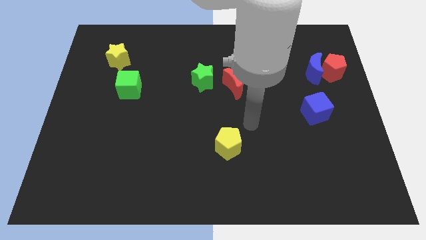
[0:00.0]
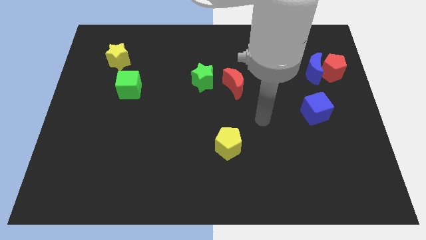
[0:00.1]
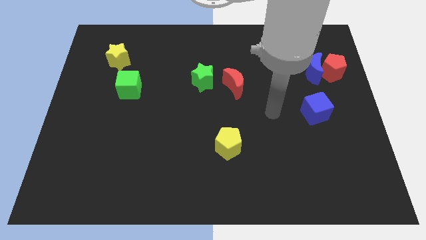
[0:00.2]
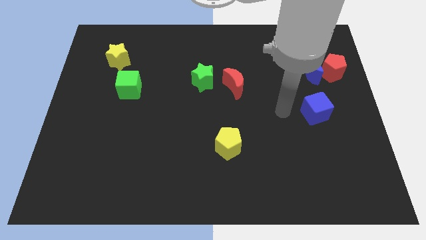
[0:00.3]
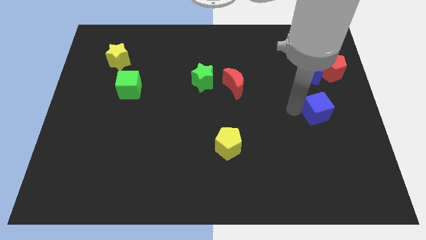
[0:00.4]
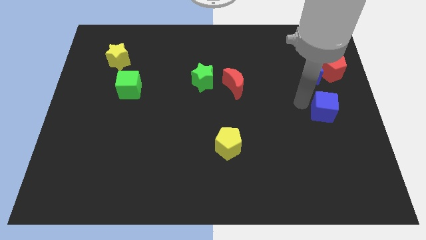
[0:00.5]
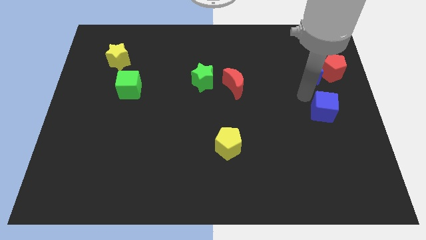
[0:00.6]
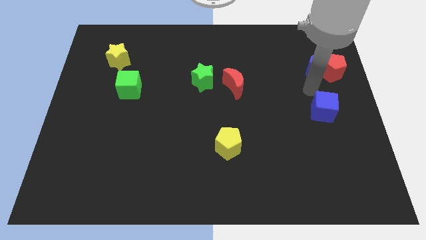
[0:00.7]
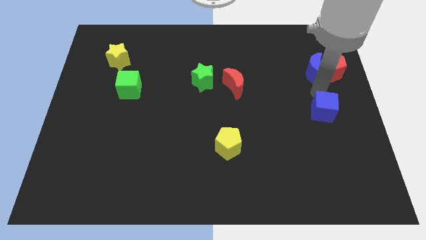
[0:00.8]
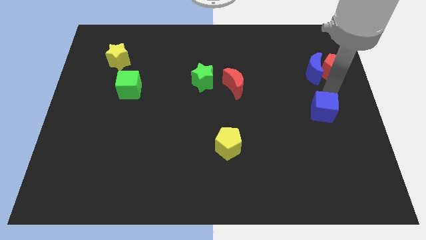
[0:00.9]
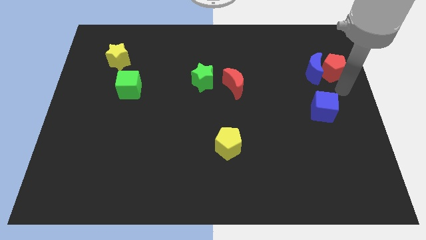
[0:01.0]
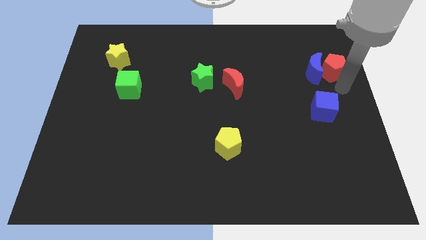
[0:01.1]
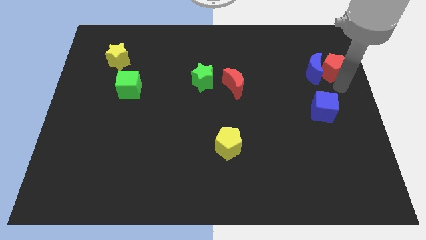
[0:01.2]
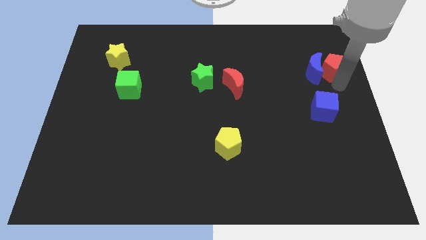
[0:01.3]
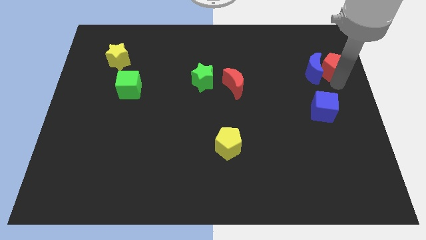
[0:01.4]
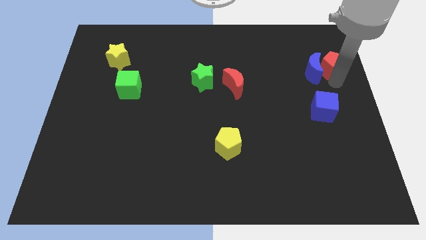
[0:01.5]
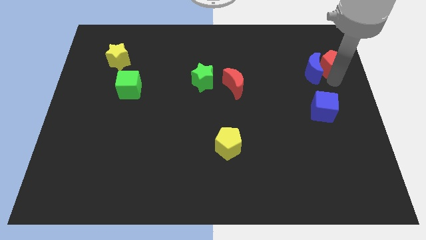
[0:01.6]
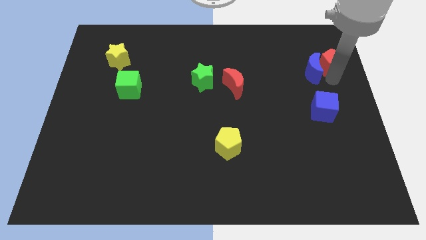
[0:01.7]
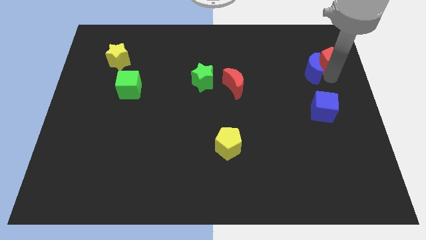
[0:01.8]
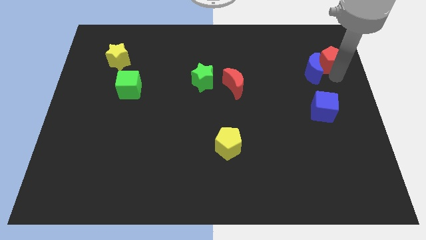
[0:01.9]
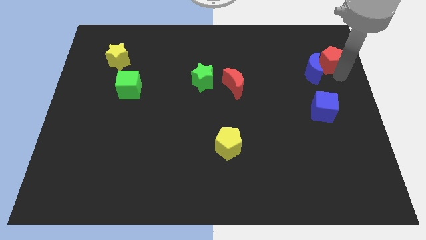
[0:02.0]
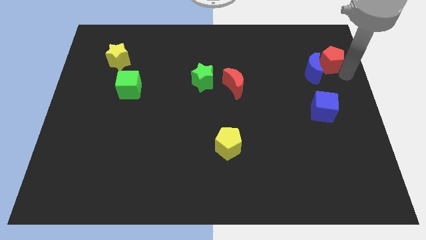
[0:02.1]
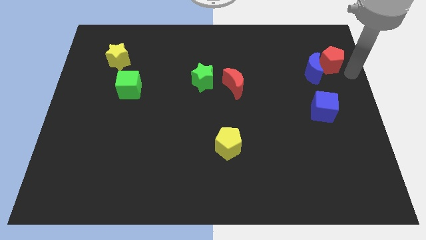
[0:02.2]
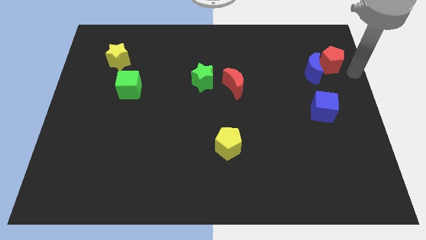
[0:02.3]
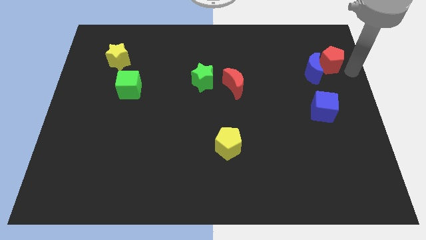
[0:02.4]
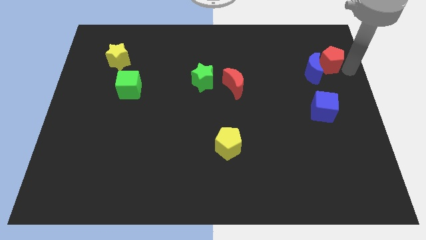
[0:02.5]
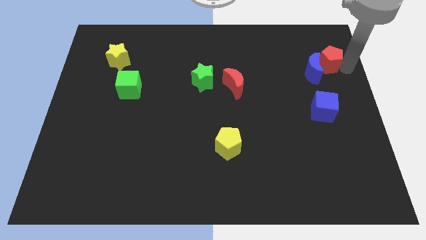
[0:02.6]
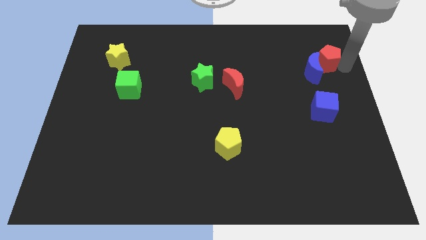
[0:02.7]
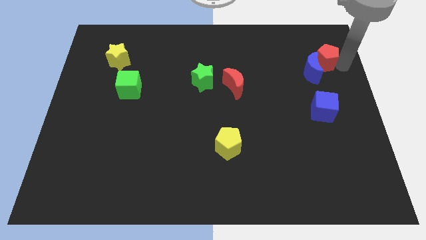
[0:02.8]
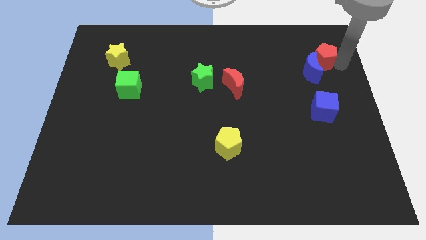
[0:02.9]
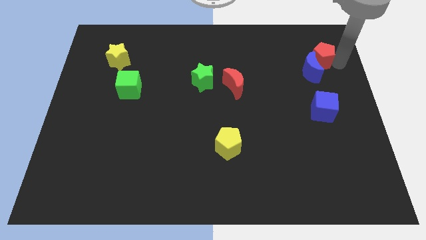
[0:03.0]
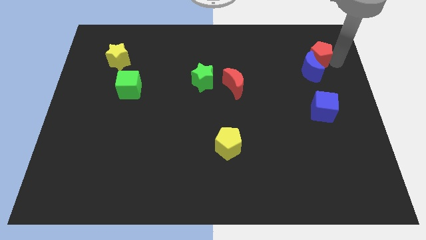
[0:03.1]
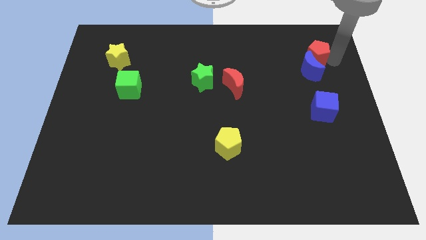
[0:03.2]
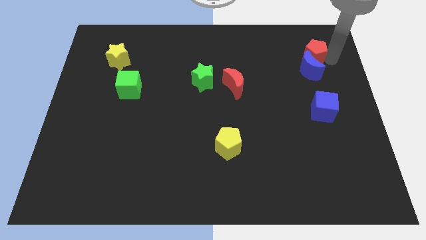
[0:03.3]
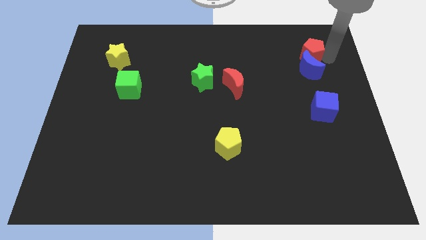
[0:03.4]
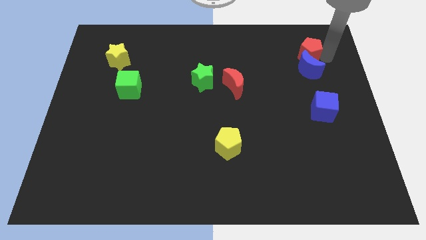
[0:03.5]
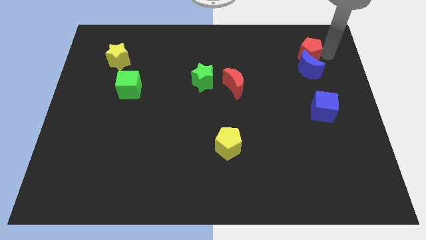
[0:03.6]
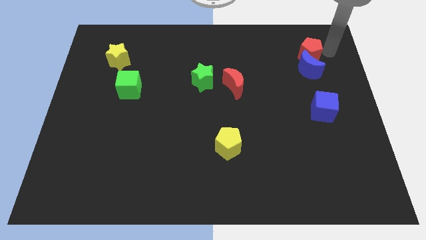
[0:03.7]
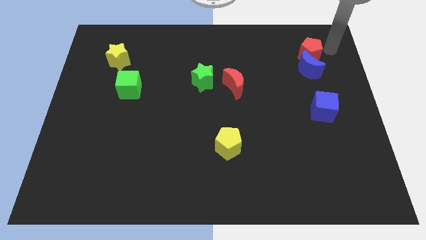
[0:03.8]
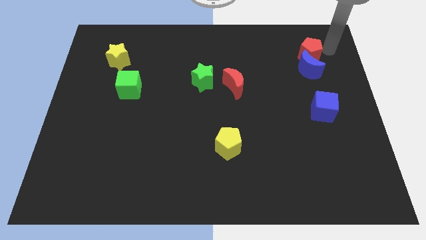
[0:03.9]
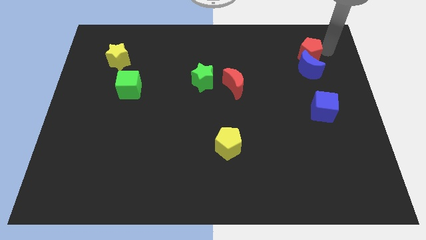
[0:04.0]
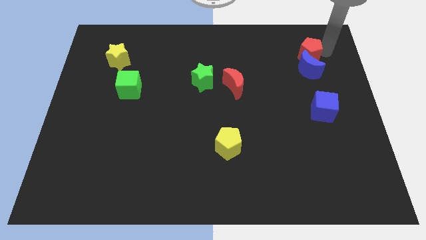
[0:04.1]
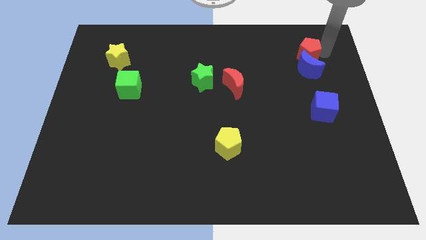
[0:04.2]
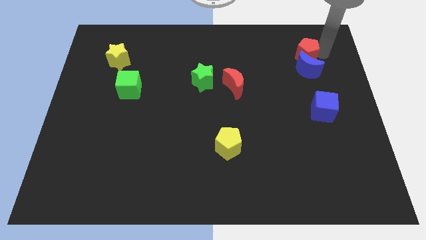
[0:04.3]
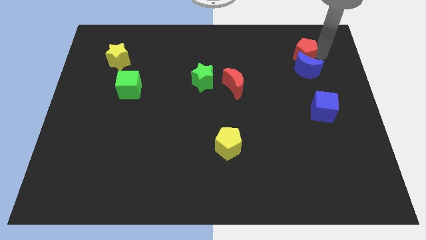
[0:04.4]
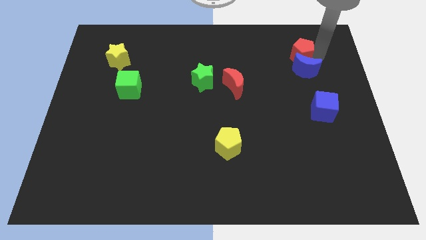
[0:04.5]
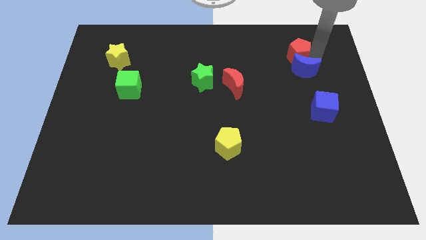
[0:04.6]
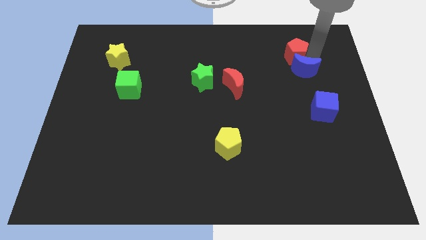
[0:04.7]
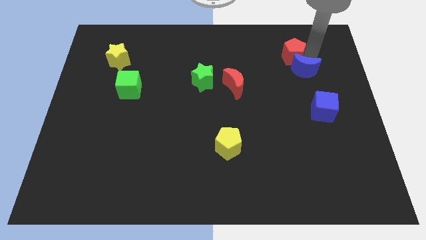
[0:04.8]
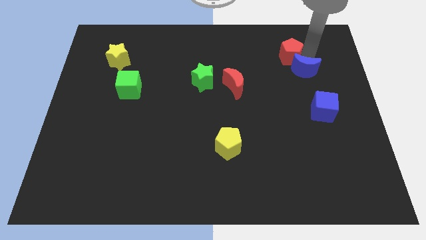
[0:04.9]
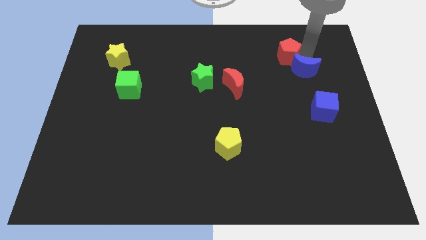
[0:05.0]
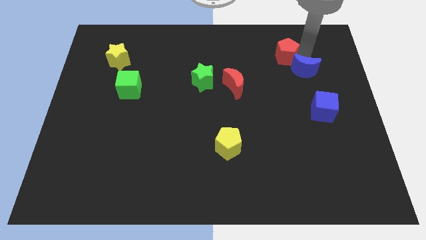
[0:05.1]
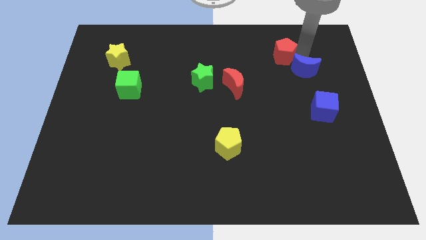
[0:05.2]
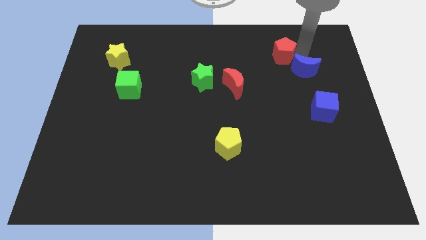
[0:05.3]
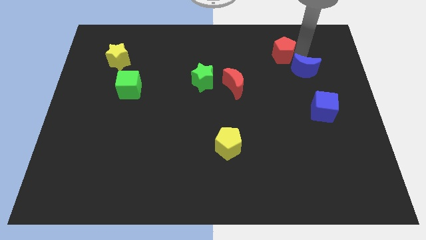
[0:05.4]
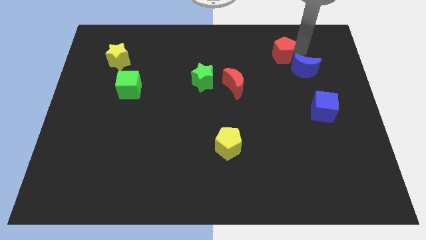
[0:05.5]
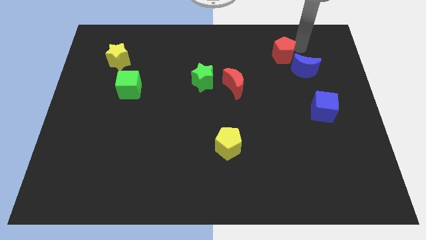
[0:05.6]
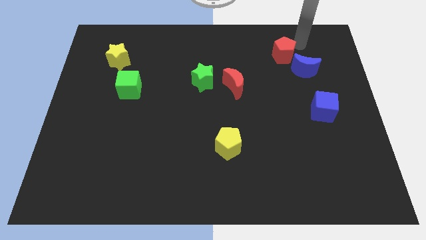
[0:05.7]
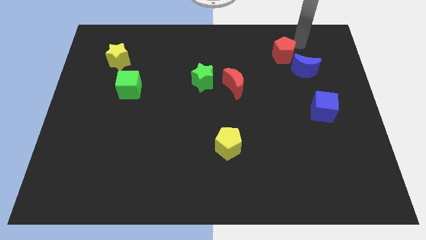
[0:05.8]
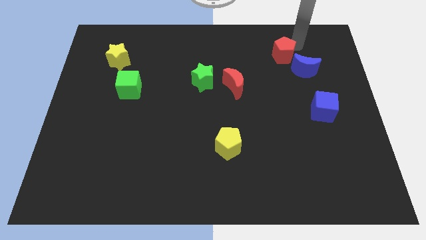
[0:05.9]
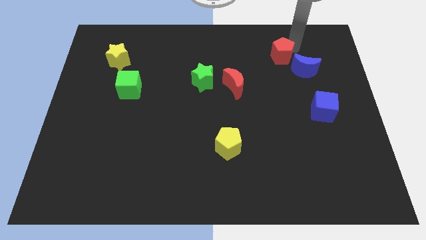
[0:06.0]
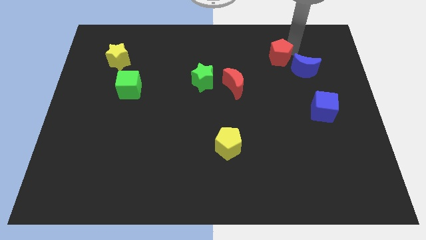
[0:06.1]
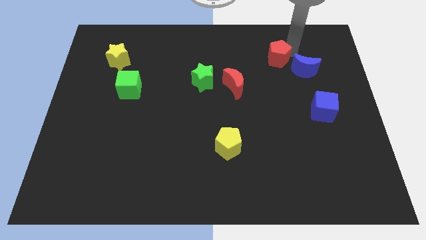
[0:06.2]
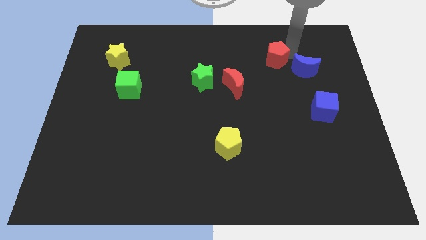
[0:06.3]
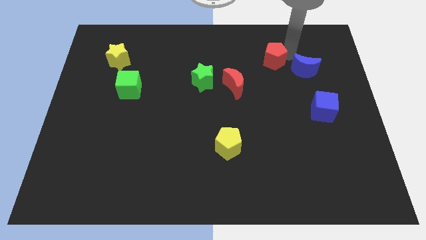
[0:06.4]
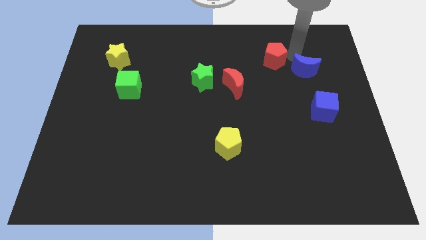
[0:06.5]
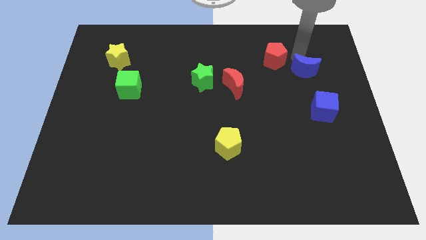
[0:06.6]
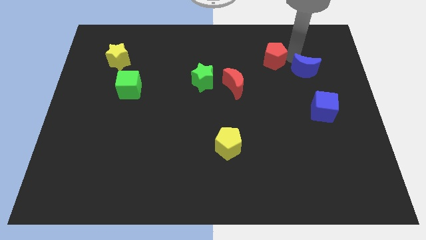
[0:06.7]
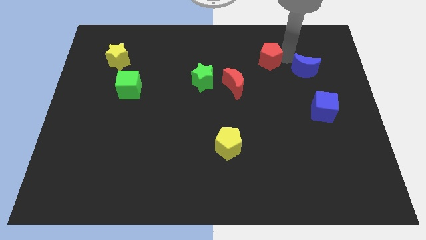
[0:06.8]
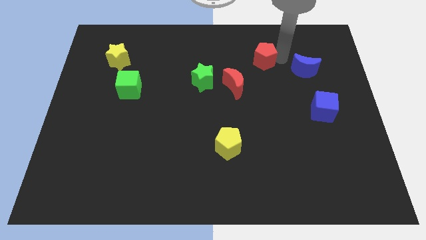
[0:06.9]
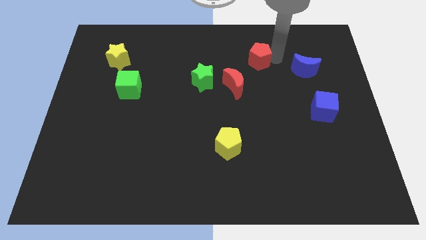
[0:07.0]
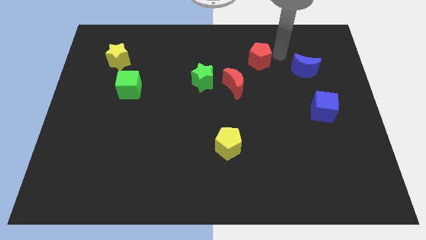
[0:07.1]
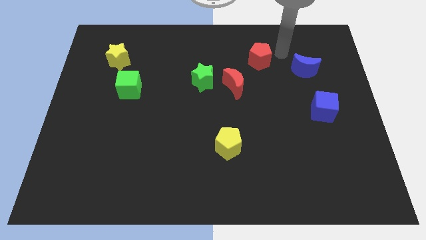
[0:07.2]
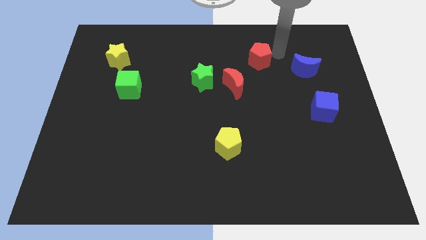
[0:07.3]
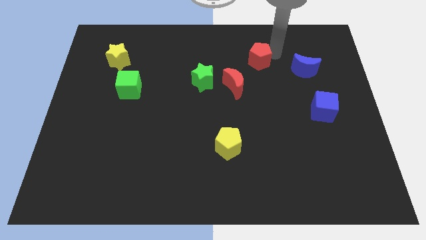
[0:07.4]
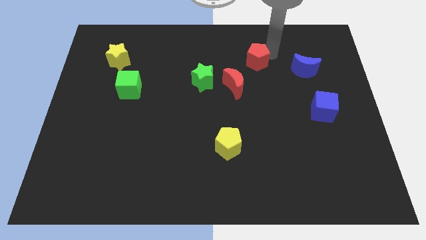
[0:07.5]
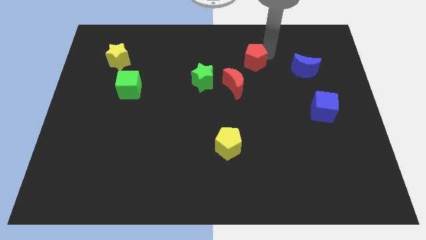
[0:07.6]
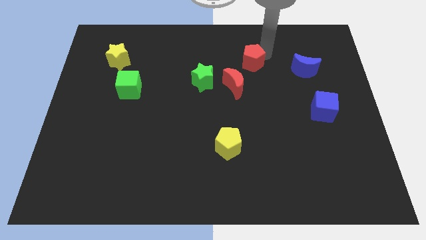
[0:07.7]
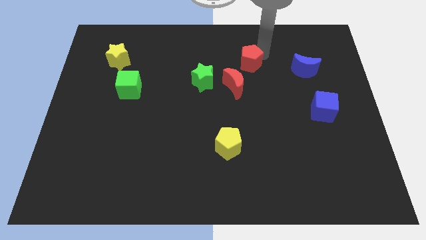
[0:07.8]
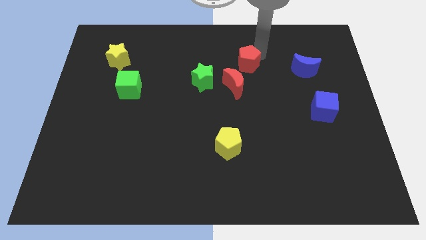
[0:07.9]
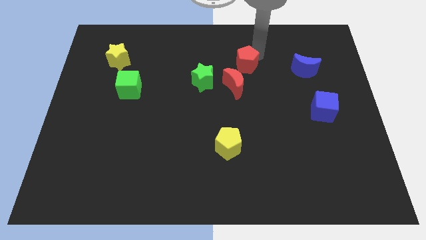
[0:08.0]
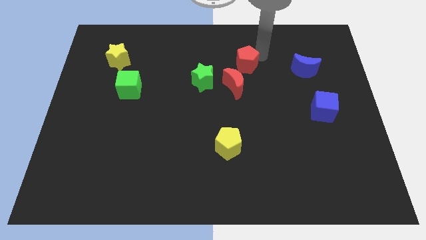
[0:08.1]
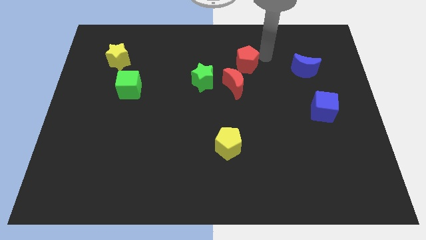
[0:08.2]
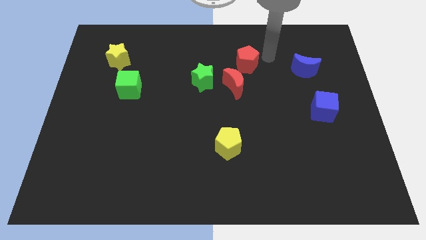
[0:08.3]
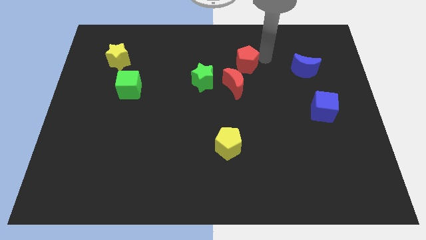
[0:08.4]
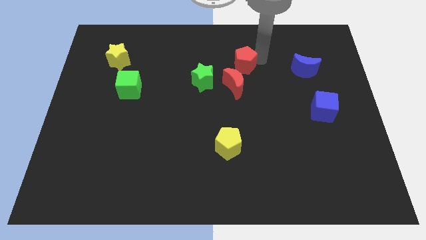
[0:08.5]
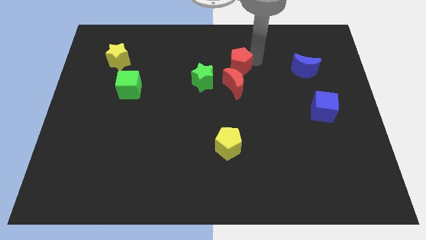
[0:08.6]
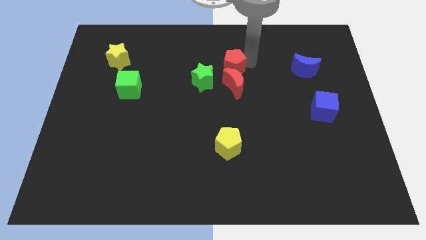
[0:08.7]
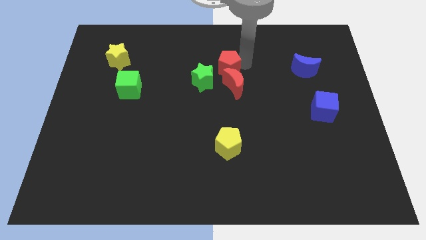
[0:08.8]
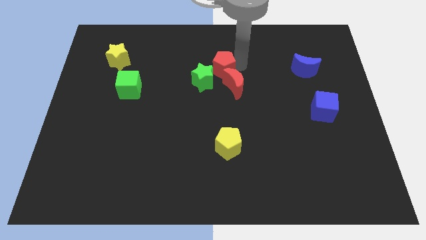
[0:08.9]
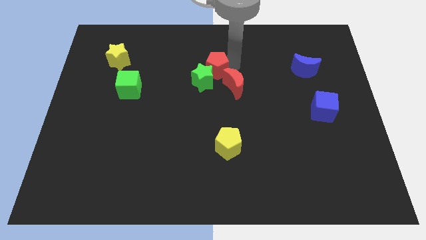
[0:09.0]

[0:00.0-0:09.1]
put the red pentagon towards the green star
